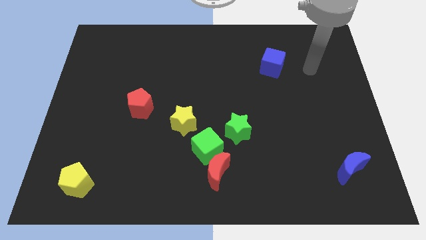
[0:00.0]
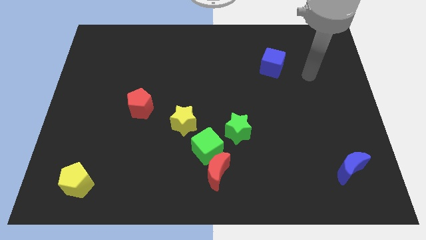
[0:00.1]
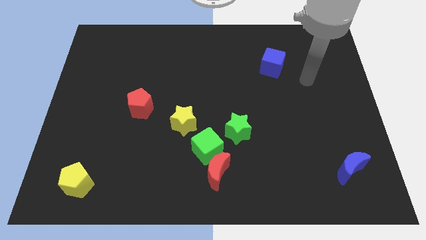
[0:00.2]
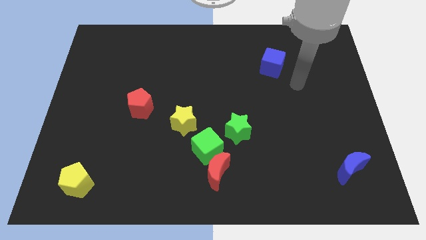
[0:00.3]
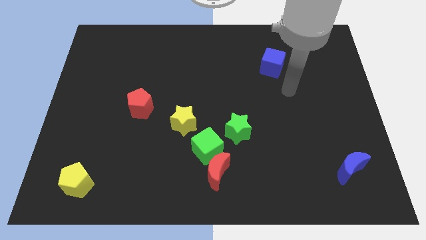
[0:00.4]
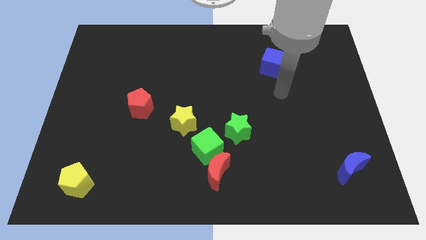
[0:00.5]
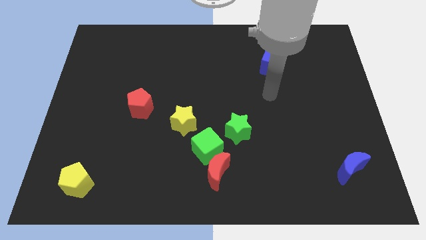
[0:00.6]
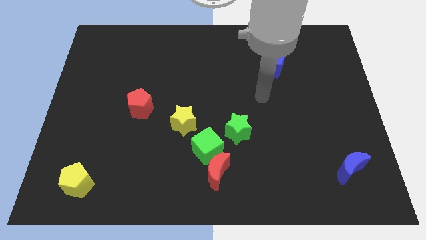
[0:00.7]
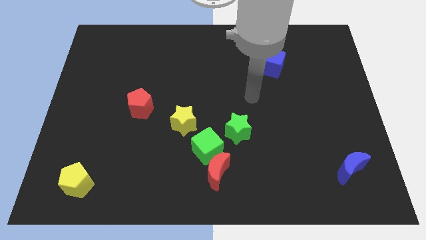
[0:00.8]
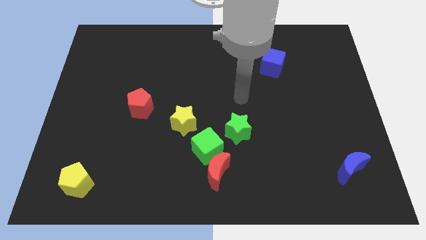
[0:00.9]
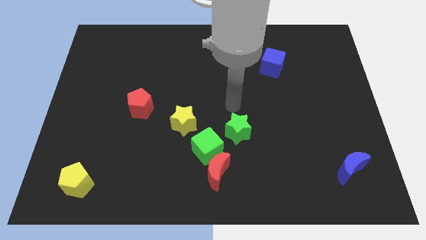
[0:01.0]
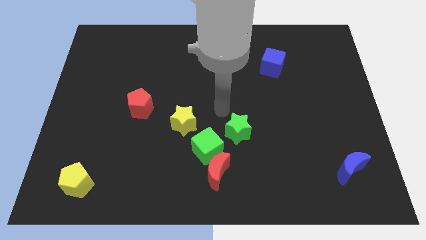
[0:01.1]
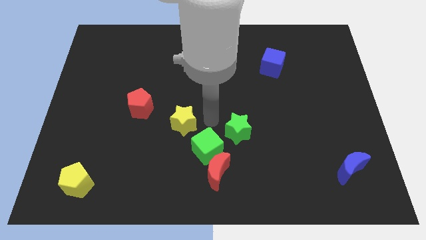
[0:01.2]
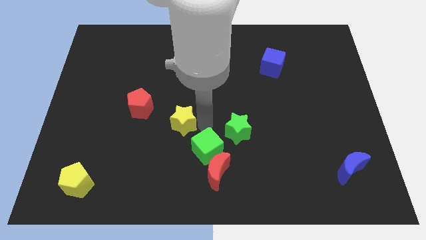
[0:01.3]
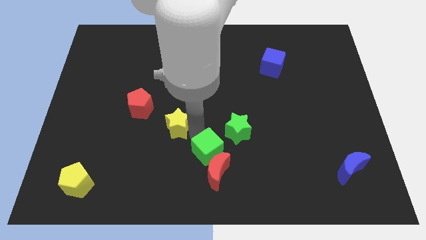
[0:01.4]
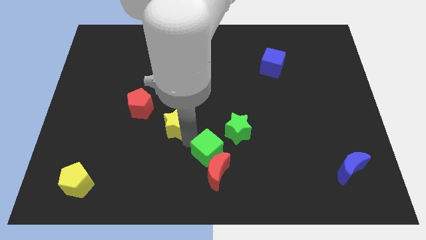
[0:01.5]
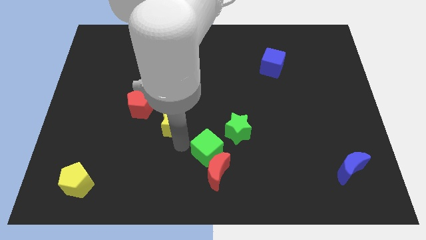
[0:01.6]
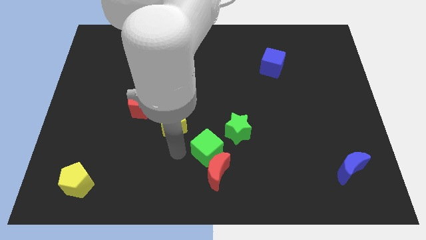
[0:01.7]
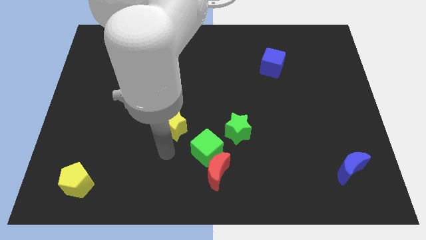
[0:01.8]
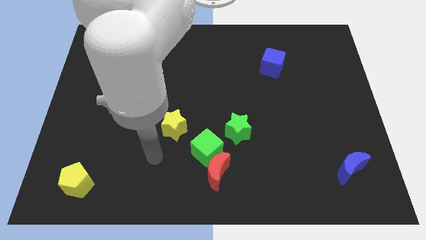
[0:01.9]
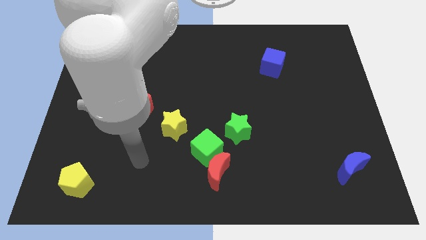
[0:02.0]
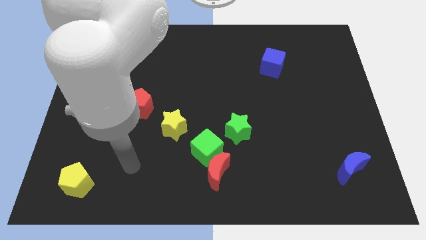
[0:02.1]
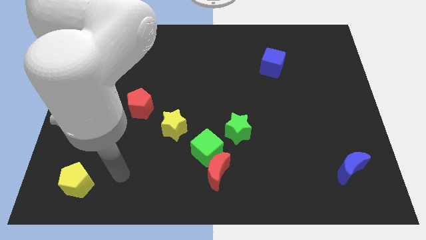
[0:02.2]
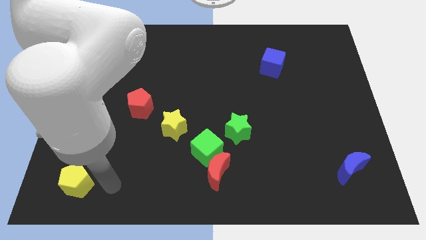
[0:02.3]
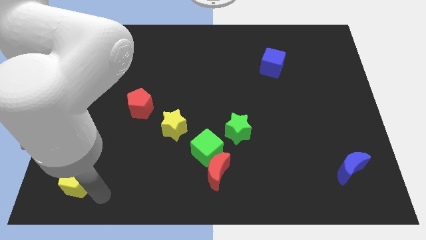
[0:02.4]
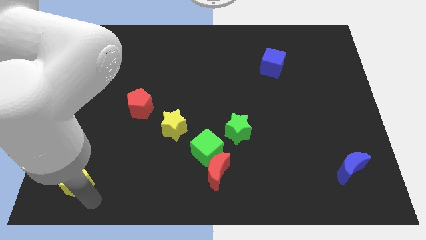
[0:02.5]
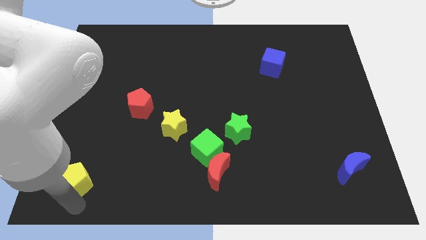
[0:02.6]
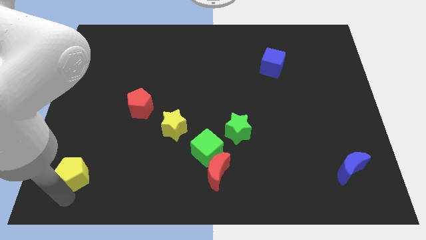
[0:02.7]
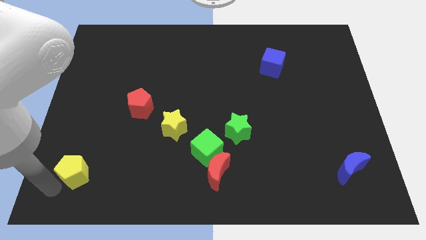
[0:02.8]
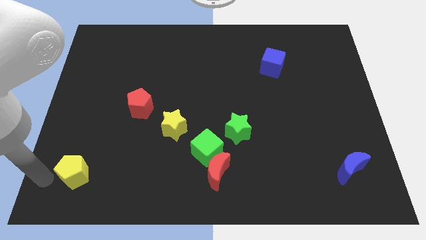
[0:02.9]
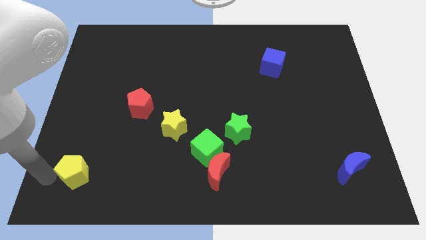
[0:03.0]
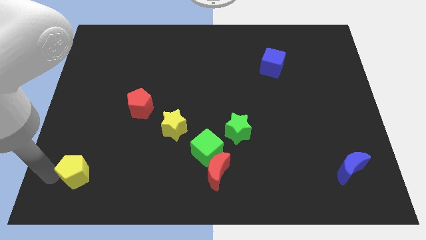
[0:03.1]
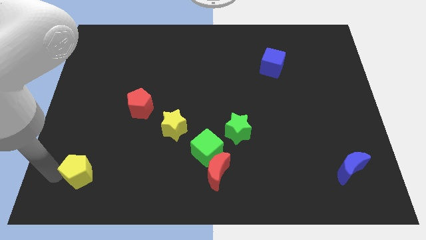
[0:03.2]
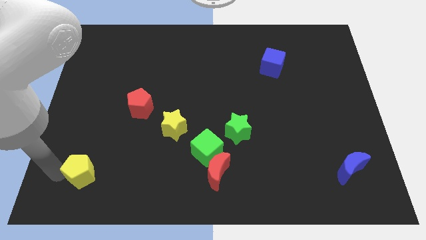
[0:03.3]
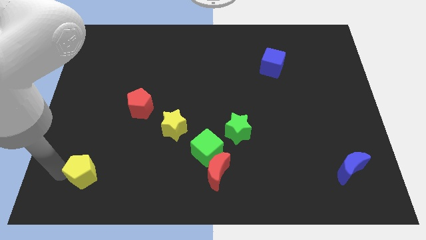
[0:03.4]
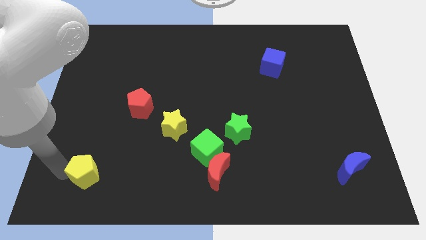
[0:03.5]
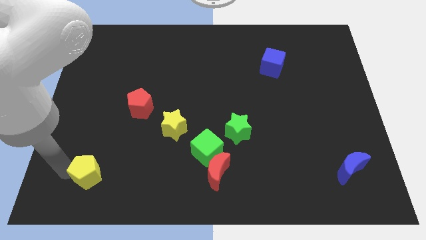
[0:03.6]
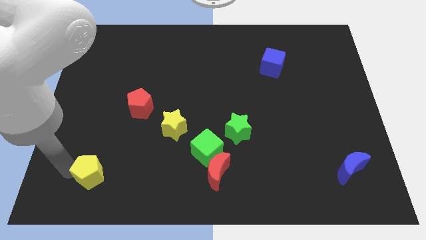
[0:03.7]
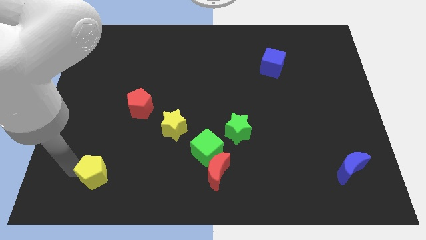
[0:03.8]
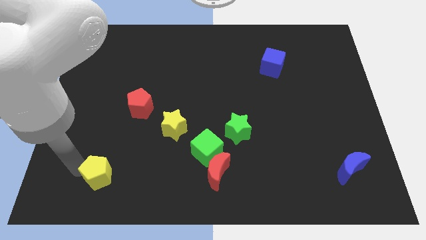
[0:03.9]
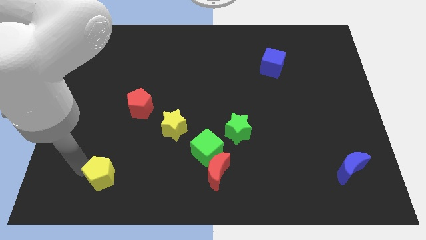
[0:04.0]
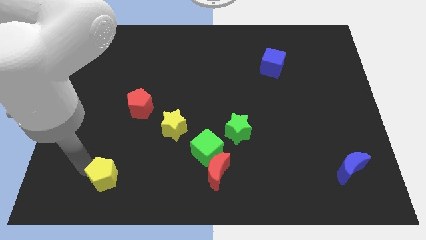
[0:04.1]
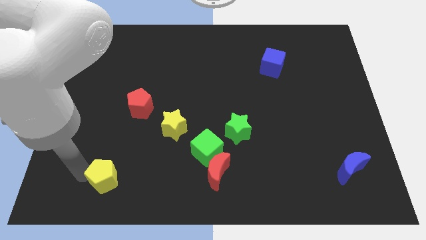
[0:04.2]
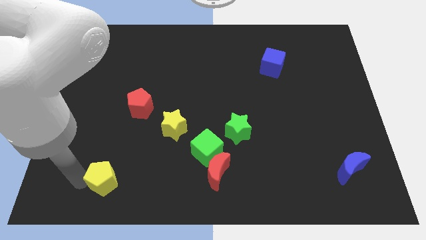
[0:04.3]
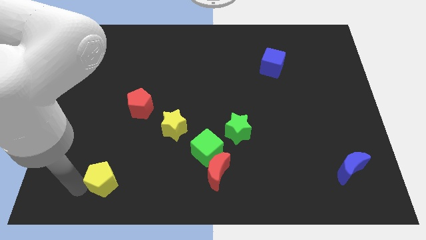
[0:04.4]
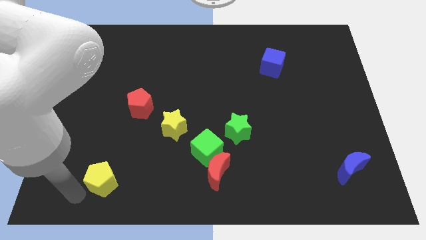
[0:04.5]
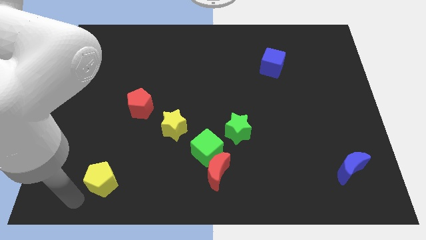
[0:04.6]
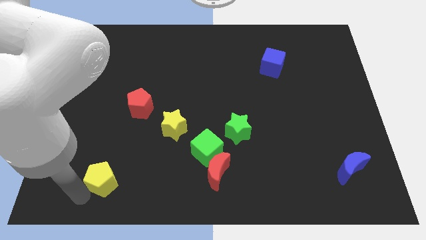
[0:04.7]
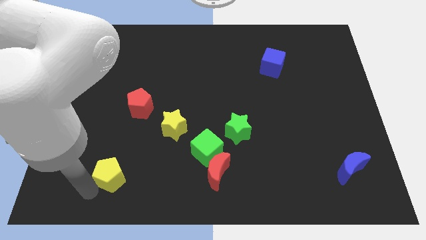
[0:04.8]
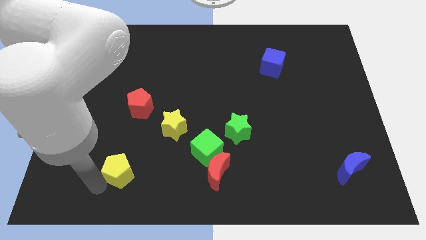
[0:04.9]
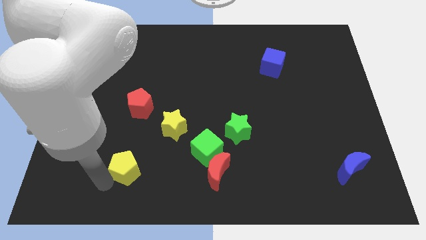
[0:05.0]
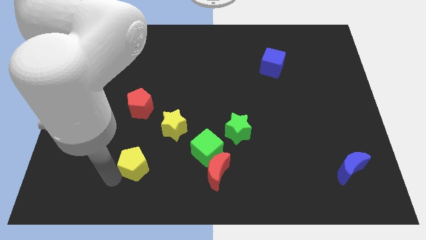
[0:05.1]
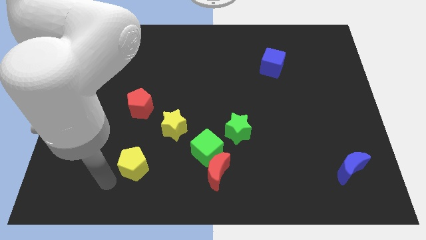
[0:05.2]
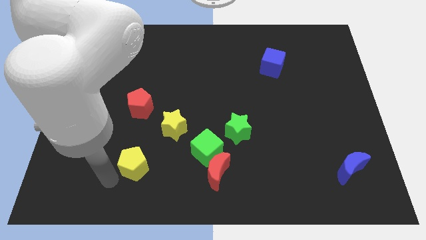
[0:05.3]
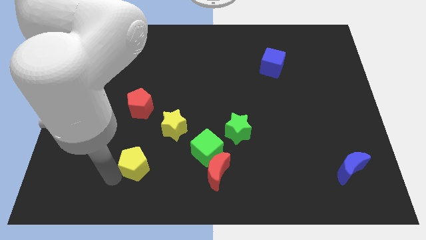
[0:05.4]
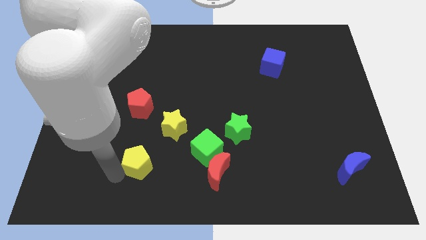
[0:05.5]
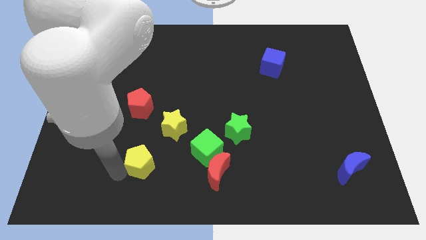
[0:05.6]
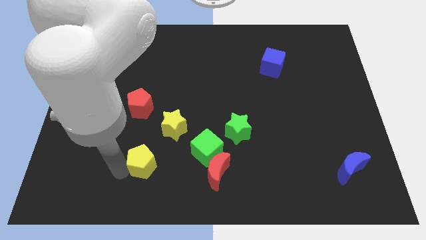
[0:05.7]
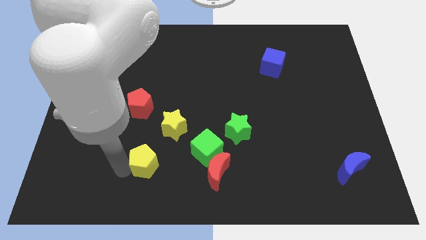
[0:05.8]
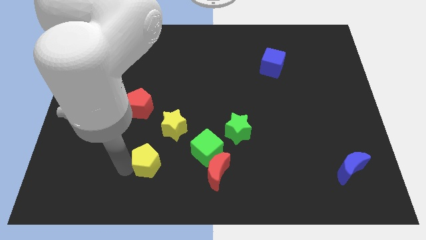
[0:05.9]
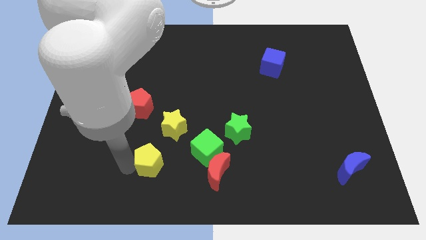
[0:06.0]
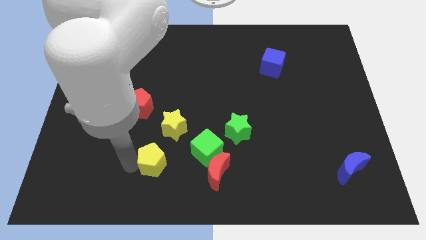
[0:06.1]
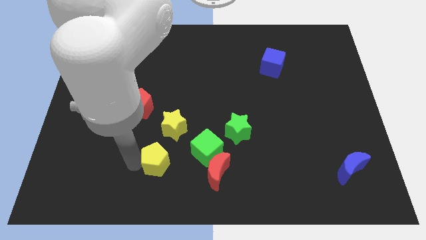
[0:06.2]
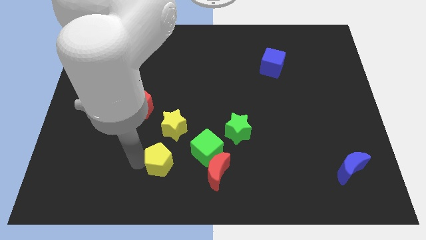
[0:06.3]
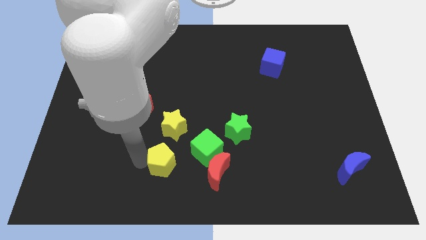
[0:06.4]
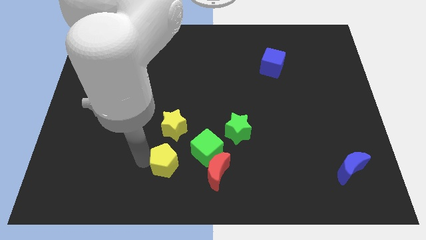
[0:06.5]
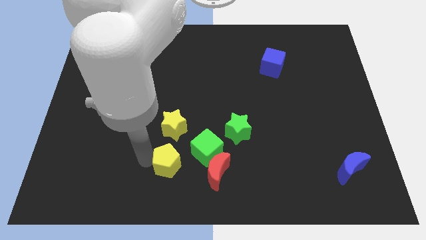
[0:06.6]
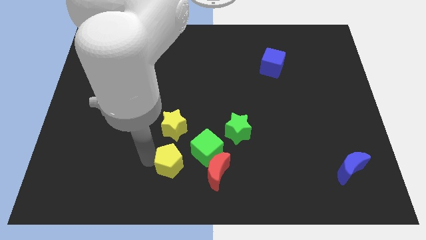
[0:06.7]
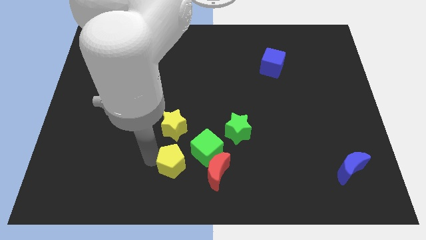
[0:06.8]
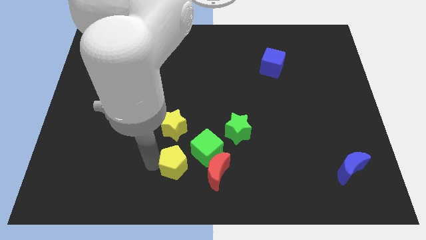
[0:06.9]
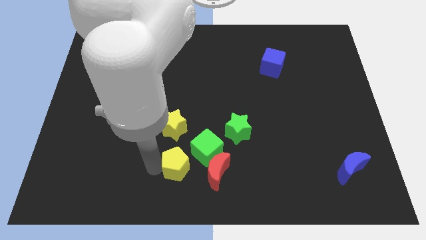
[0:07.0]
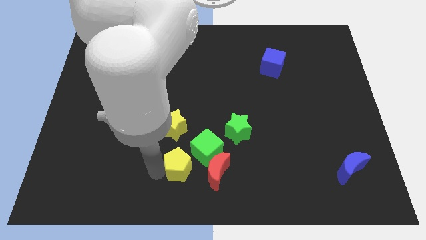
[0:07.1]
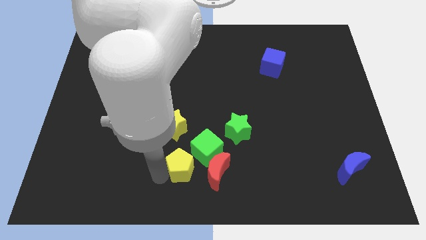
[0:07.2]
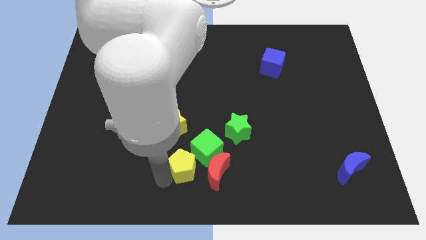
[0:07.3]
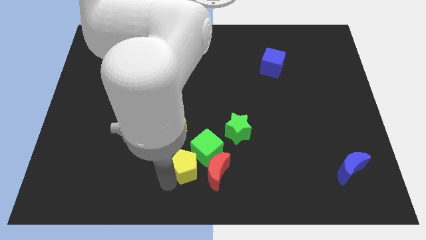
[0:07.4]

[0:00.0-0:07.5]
move the yellow pentagon close to the green cube

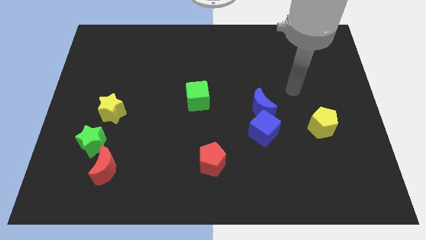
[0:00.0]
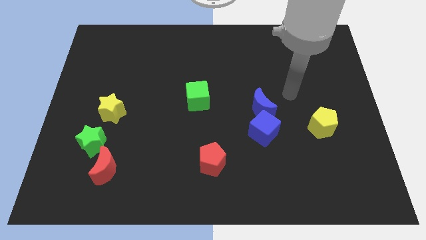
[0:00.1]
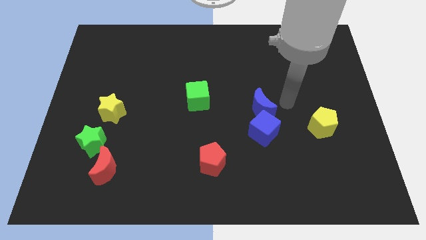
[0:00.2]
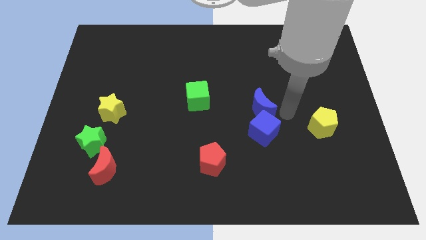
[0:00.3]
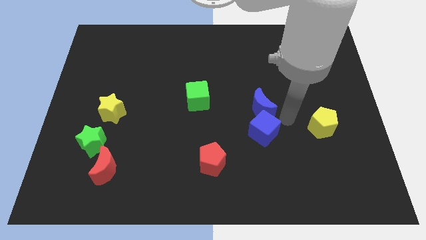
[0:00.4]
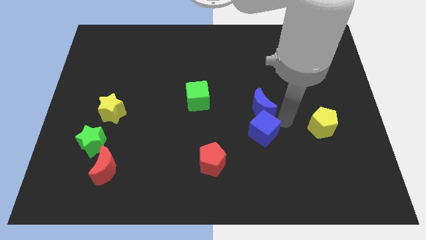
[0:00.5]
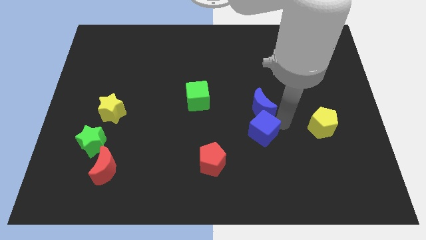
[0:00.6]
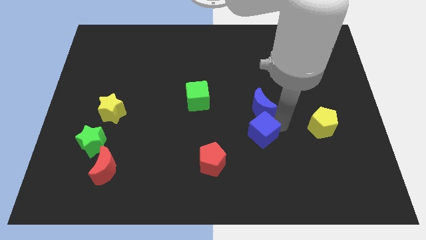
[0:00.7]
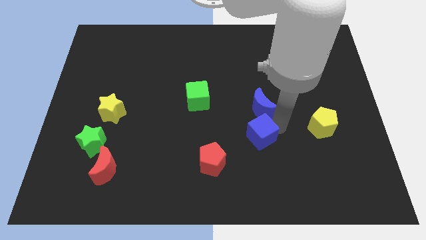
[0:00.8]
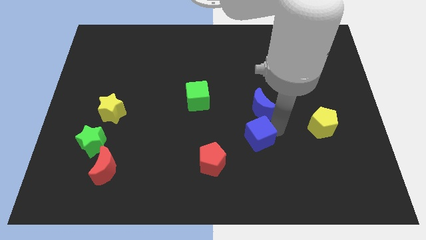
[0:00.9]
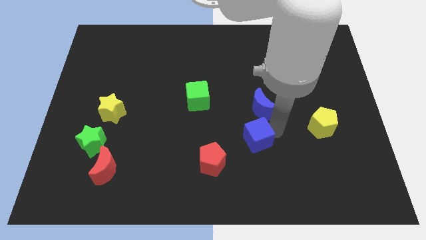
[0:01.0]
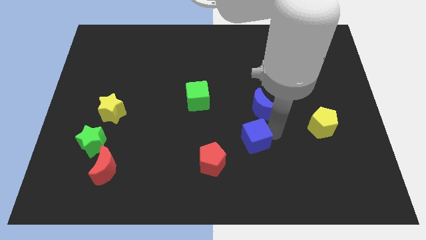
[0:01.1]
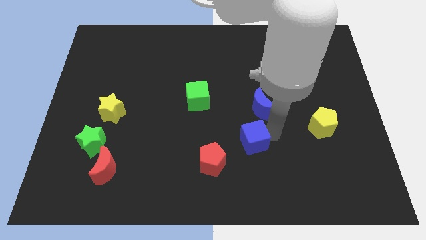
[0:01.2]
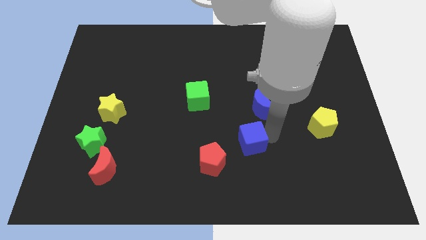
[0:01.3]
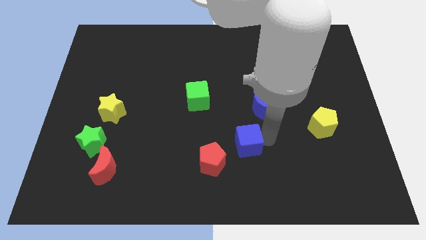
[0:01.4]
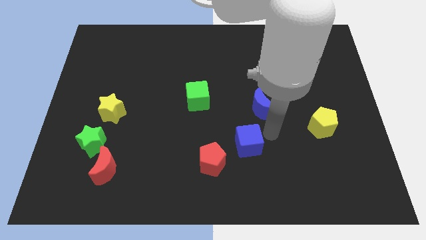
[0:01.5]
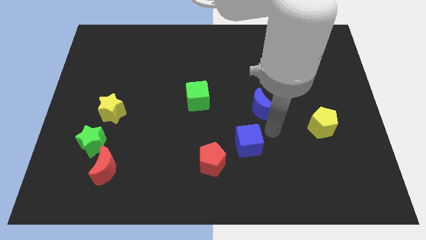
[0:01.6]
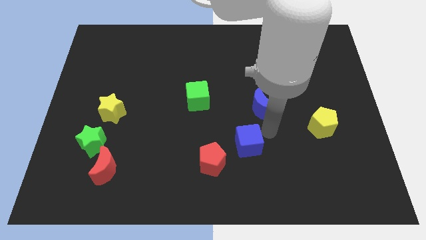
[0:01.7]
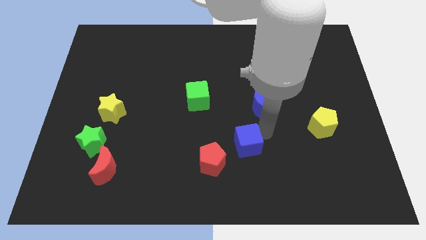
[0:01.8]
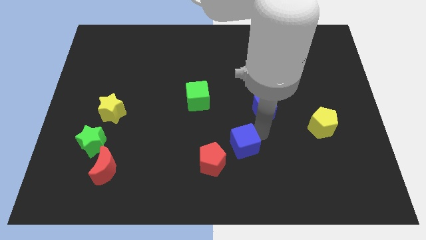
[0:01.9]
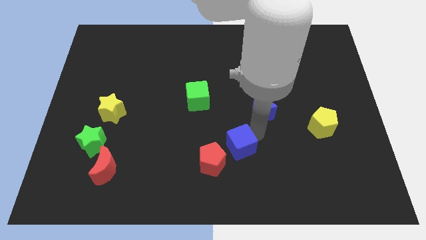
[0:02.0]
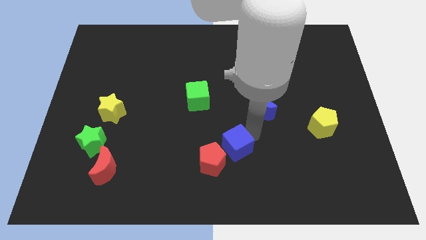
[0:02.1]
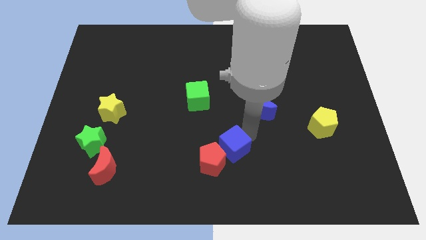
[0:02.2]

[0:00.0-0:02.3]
put the blue cube next to the red pentagon
